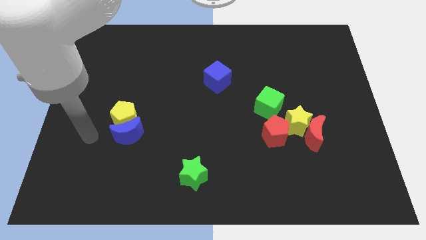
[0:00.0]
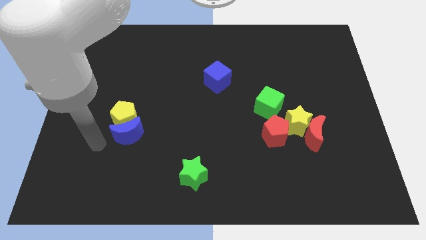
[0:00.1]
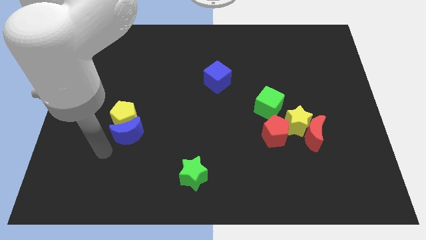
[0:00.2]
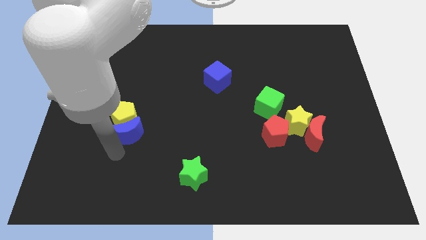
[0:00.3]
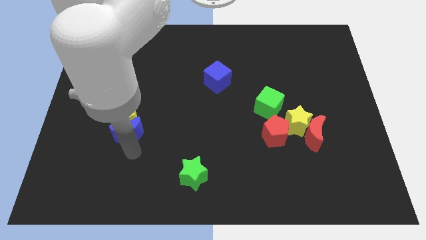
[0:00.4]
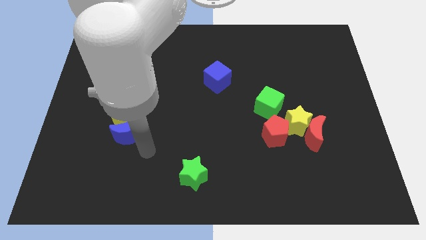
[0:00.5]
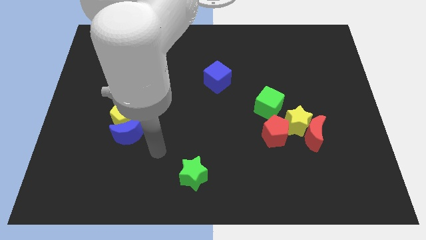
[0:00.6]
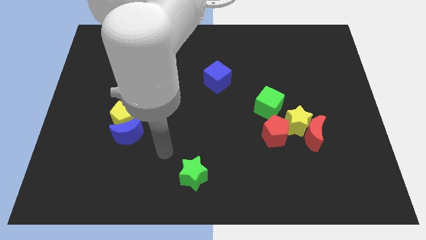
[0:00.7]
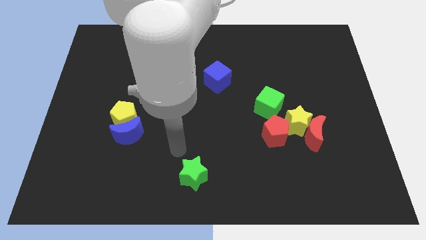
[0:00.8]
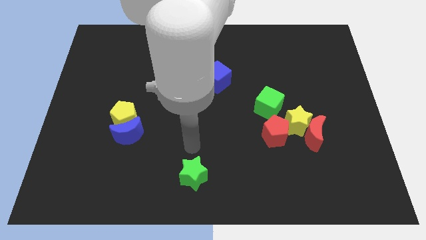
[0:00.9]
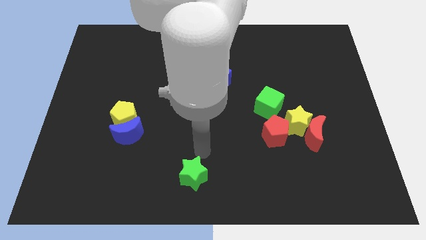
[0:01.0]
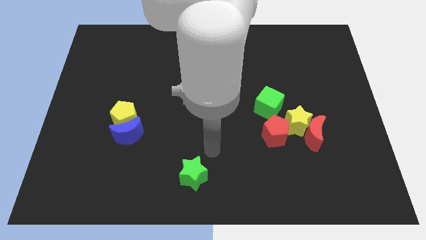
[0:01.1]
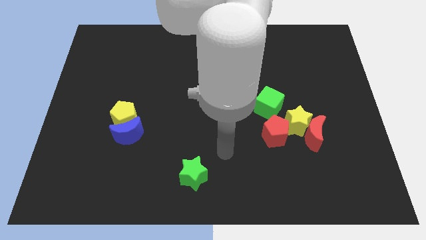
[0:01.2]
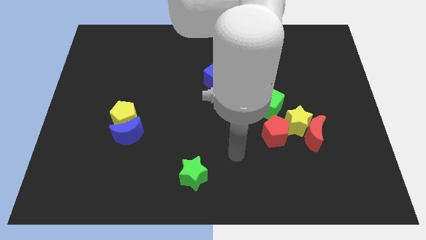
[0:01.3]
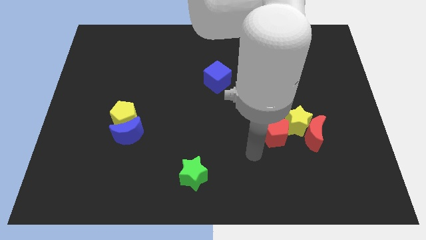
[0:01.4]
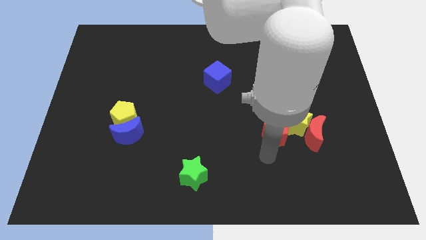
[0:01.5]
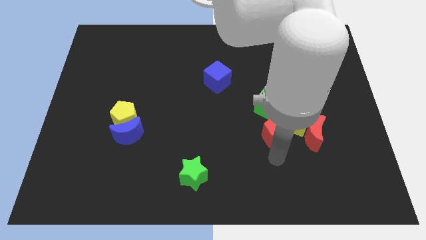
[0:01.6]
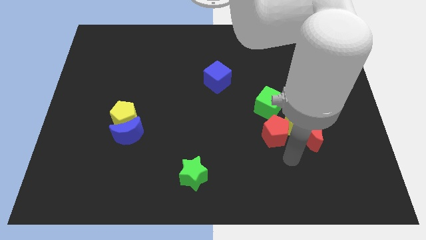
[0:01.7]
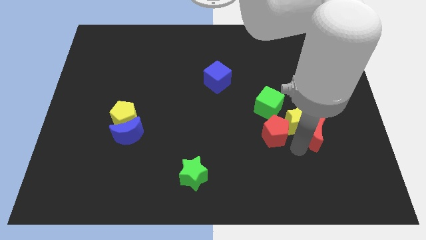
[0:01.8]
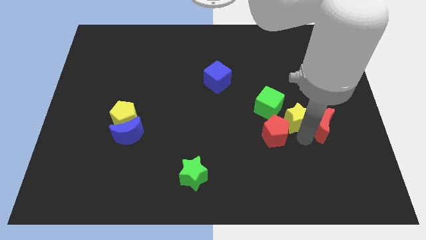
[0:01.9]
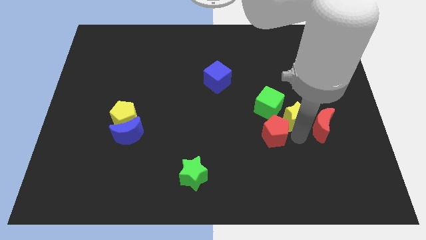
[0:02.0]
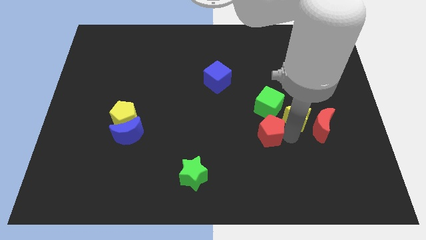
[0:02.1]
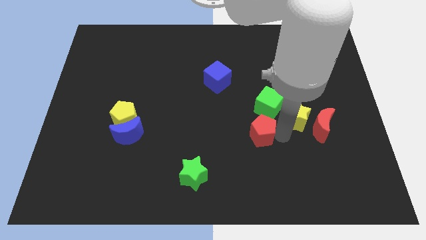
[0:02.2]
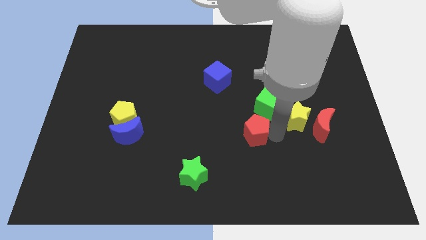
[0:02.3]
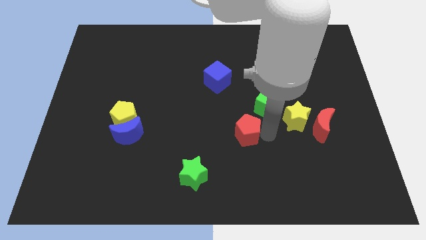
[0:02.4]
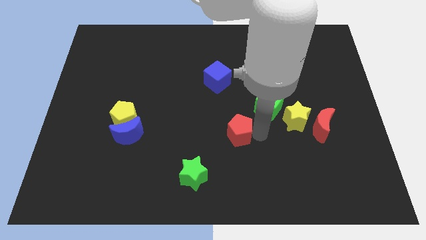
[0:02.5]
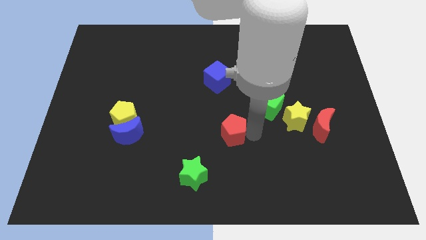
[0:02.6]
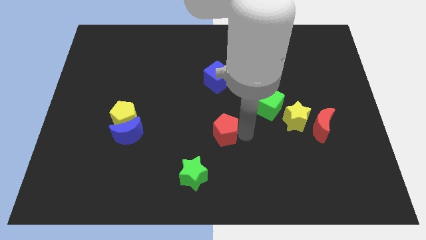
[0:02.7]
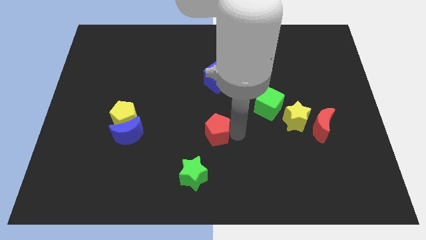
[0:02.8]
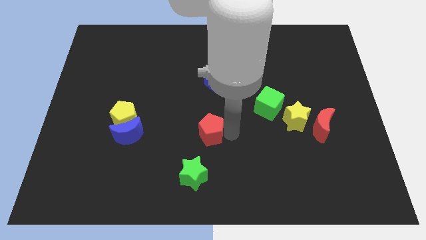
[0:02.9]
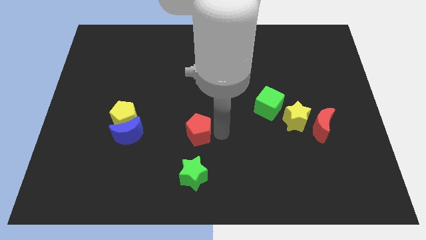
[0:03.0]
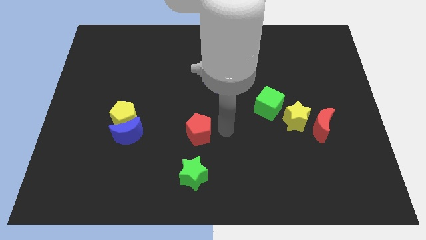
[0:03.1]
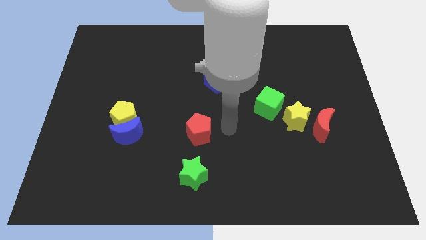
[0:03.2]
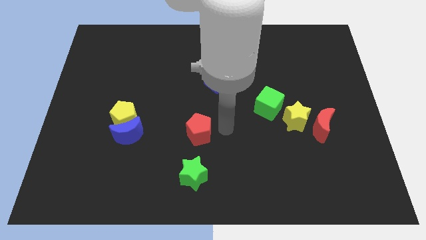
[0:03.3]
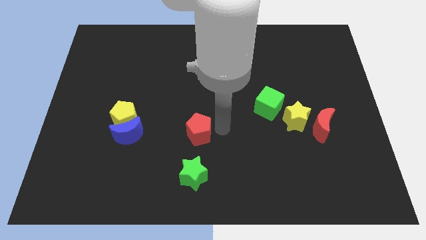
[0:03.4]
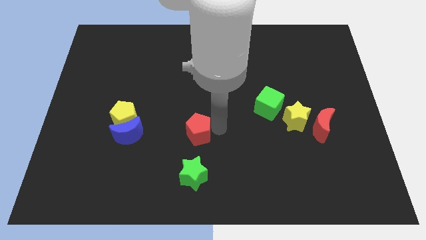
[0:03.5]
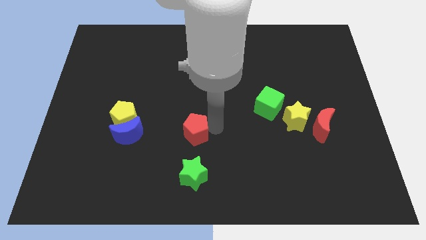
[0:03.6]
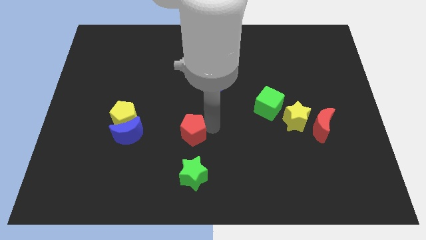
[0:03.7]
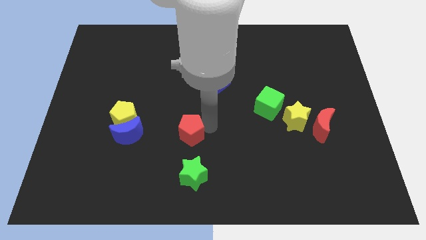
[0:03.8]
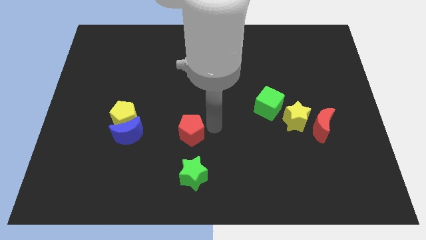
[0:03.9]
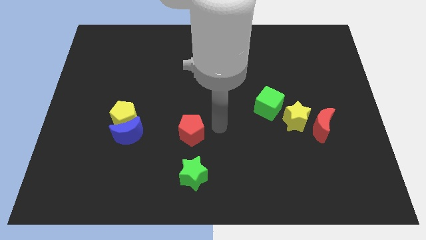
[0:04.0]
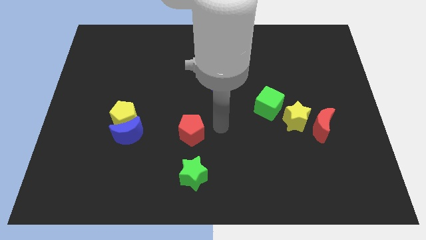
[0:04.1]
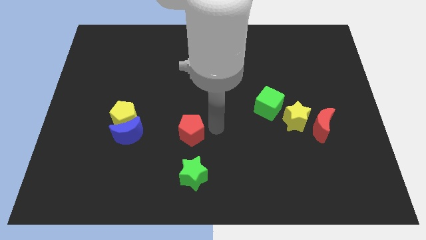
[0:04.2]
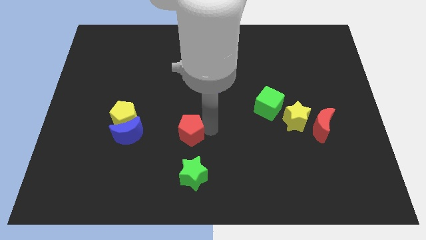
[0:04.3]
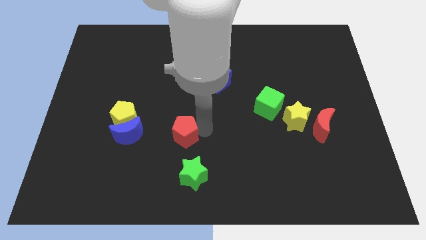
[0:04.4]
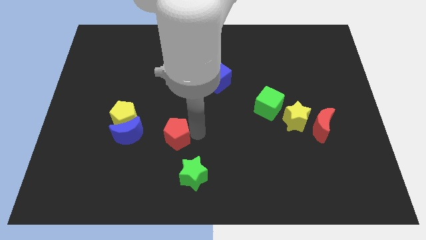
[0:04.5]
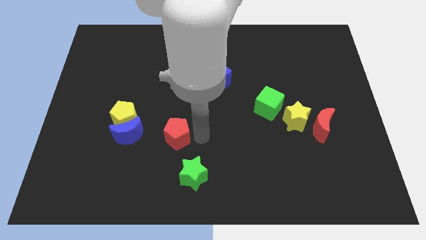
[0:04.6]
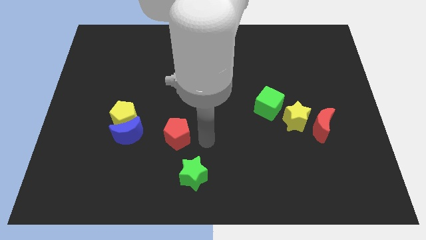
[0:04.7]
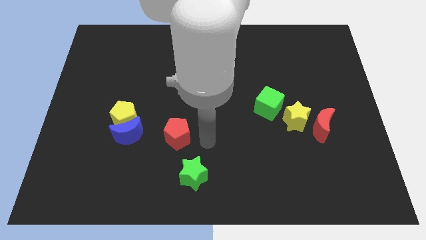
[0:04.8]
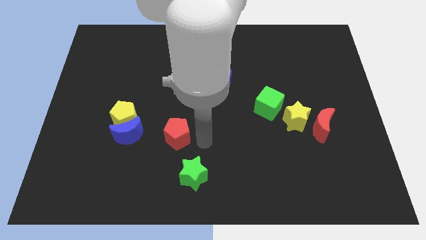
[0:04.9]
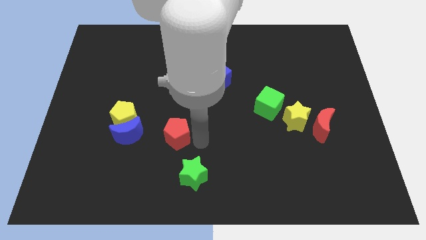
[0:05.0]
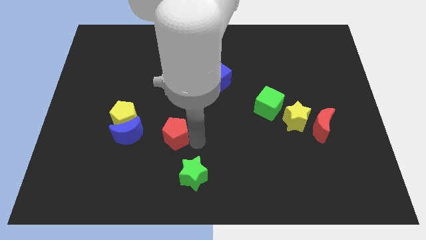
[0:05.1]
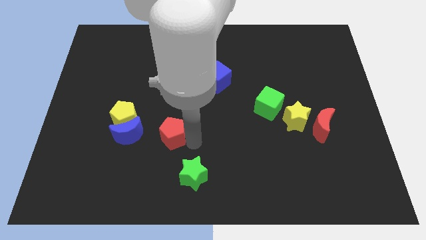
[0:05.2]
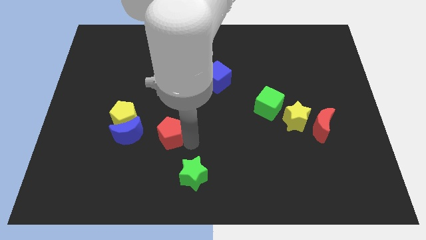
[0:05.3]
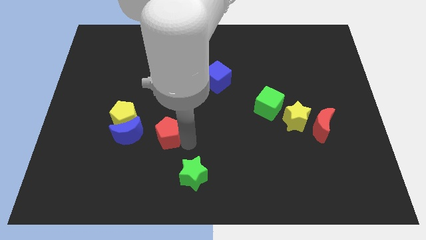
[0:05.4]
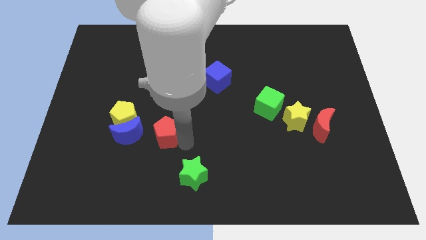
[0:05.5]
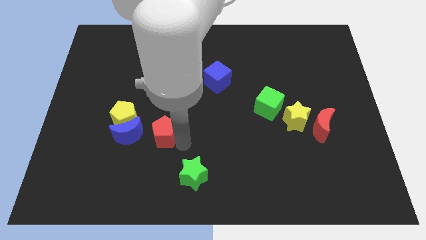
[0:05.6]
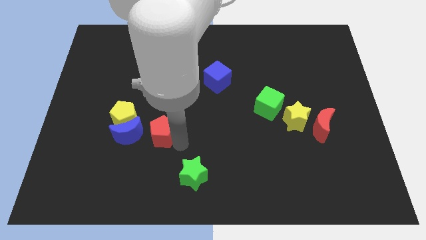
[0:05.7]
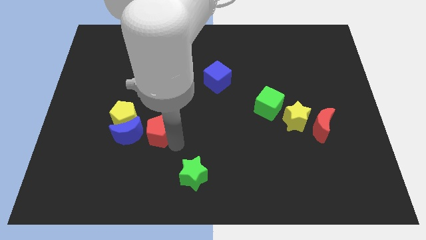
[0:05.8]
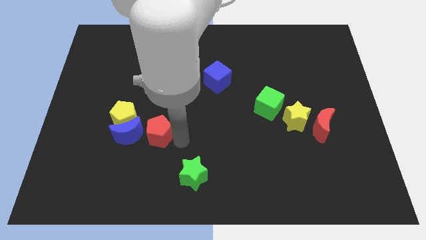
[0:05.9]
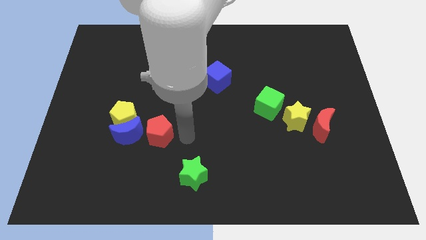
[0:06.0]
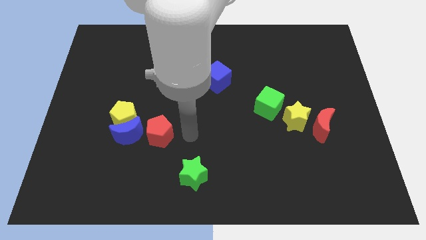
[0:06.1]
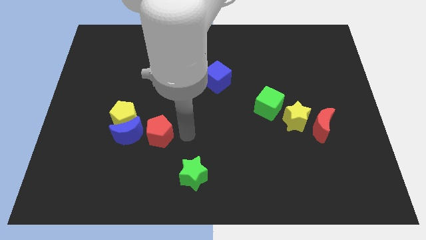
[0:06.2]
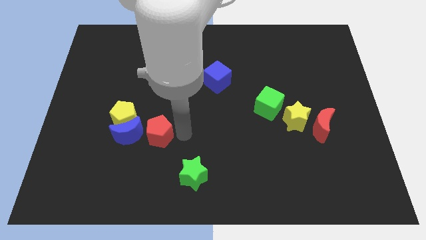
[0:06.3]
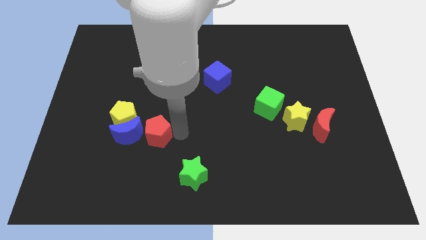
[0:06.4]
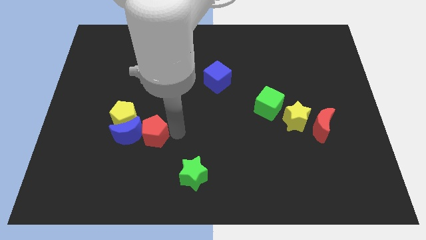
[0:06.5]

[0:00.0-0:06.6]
put the red pentagon close to the blue moon

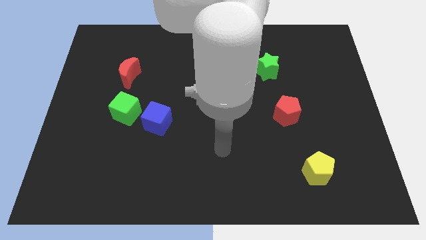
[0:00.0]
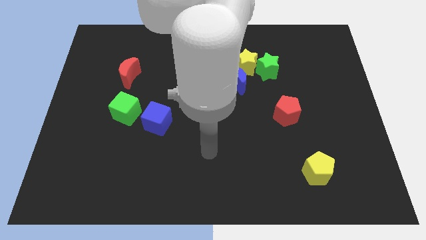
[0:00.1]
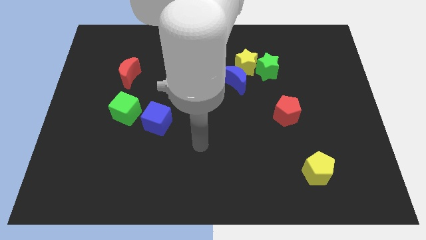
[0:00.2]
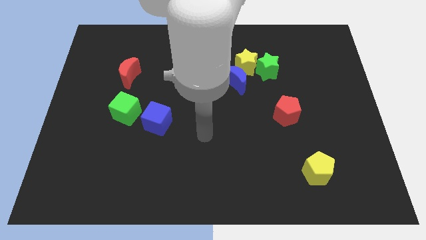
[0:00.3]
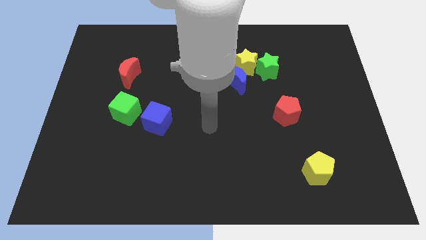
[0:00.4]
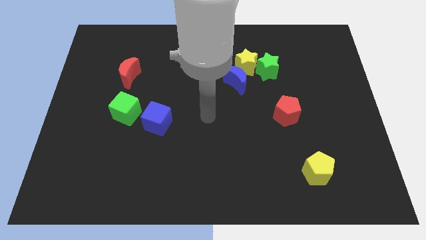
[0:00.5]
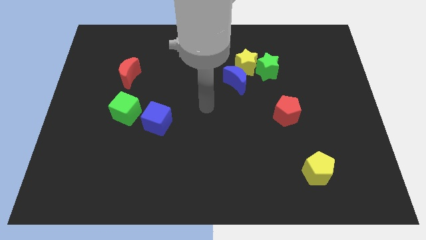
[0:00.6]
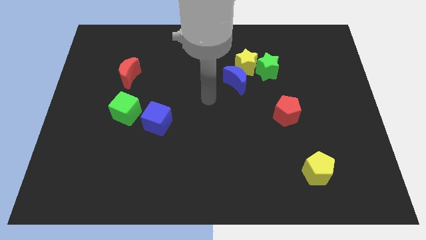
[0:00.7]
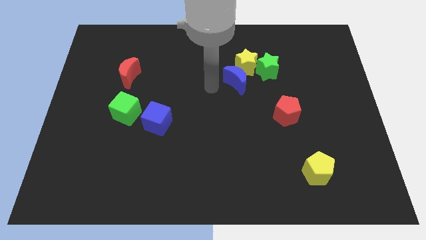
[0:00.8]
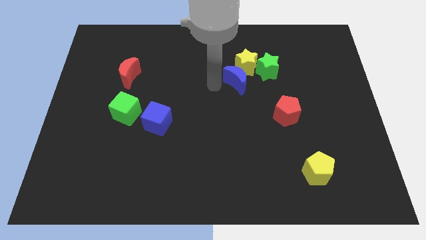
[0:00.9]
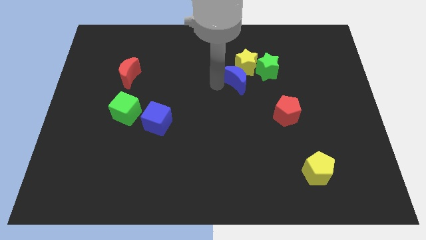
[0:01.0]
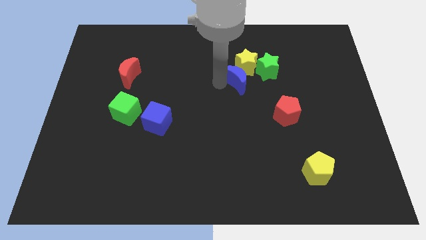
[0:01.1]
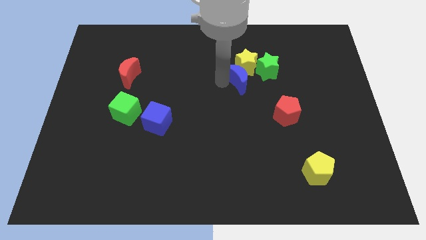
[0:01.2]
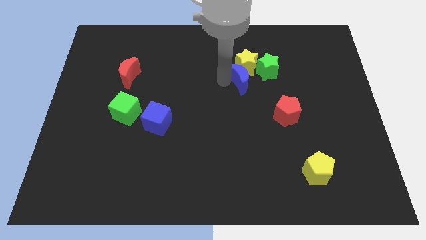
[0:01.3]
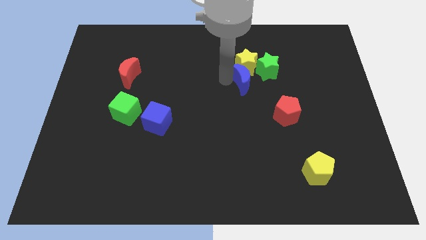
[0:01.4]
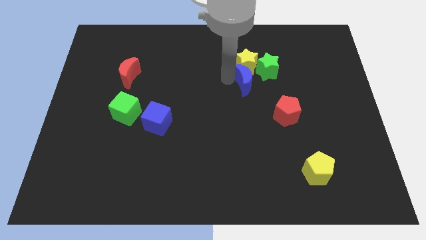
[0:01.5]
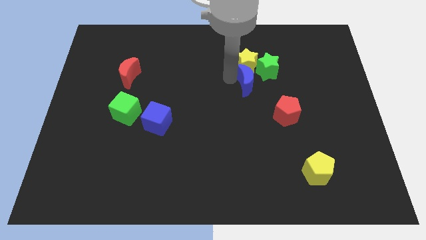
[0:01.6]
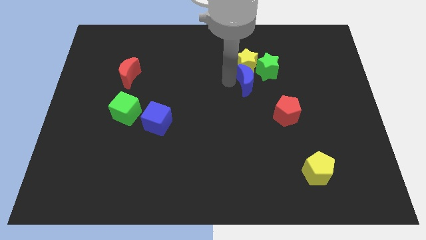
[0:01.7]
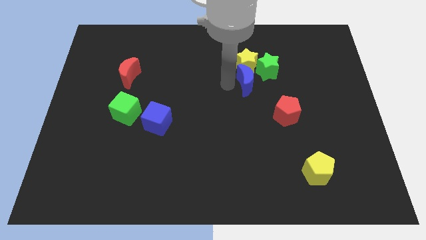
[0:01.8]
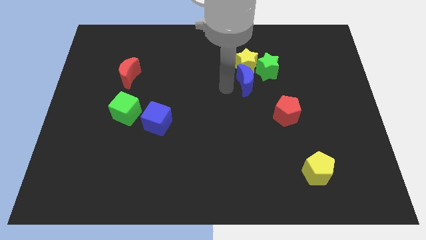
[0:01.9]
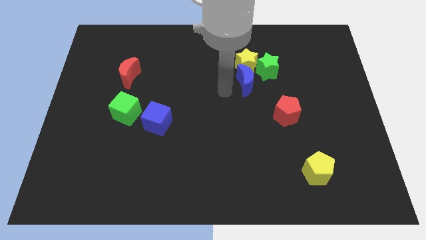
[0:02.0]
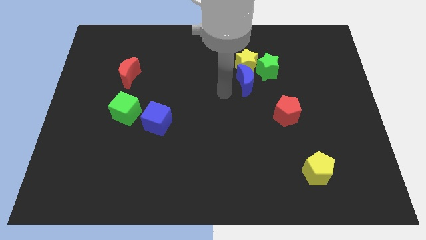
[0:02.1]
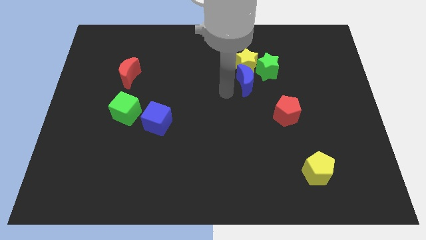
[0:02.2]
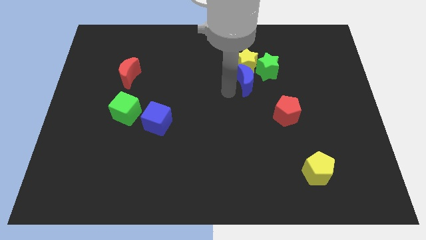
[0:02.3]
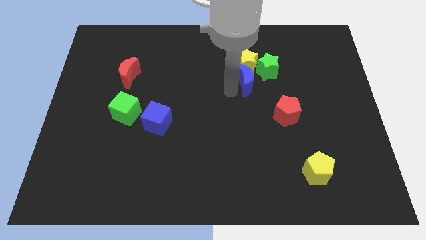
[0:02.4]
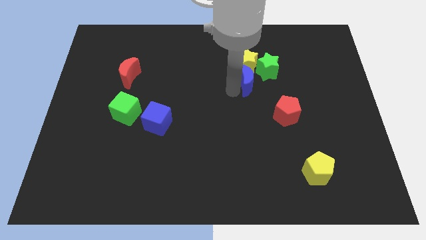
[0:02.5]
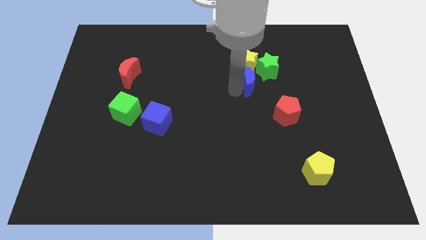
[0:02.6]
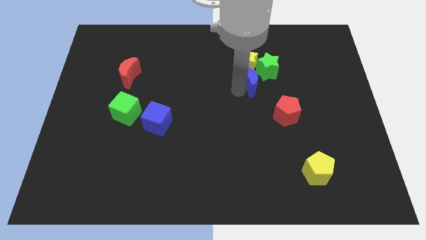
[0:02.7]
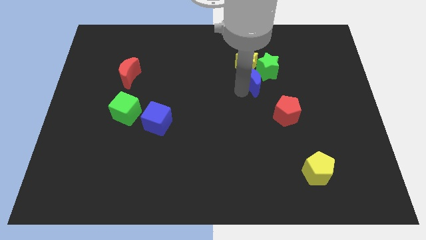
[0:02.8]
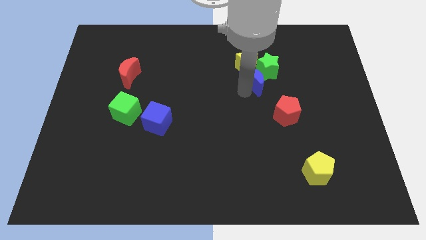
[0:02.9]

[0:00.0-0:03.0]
put the blue moon close to the green star
